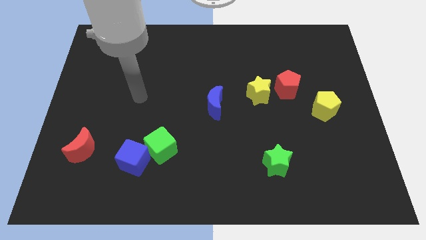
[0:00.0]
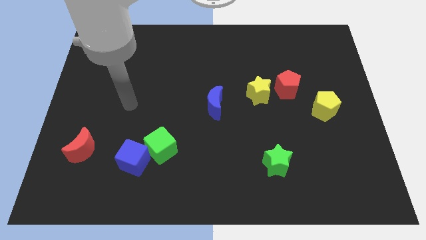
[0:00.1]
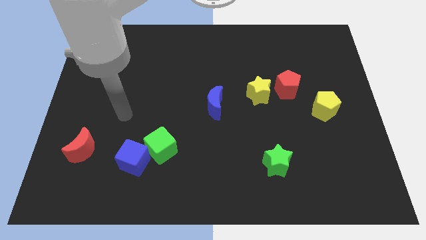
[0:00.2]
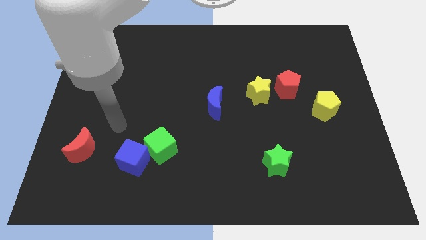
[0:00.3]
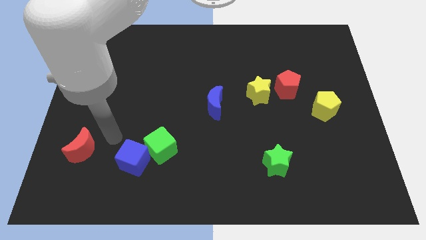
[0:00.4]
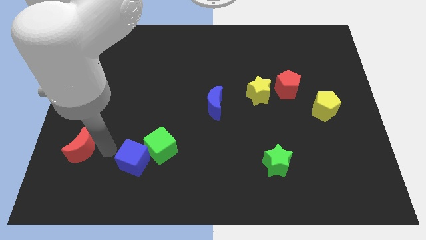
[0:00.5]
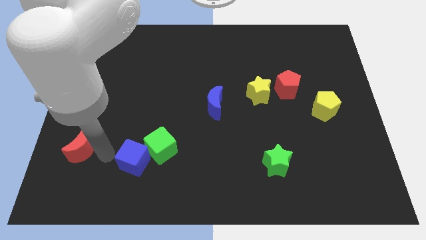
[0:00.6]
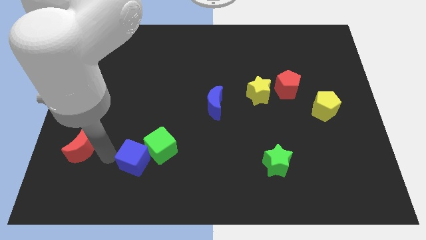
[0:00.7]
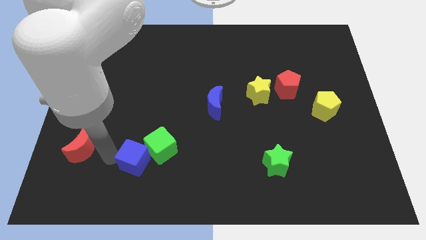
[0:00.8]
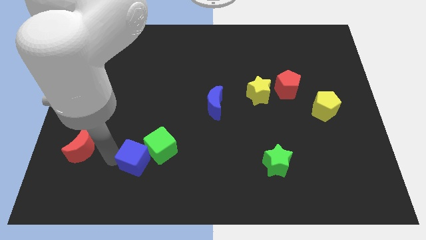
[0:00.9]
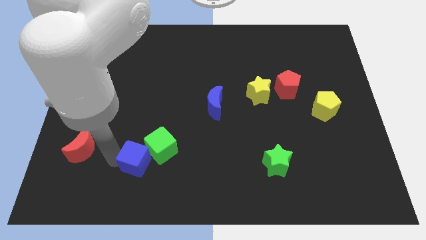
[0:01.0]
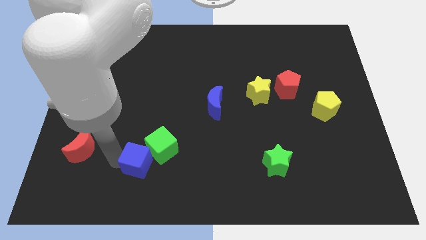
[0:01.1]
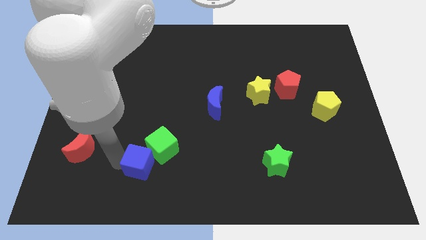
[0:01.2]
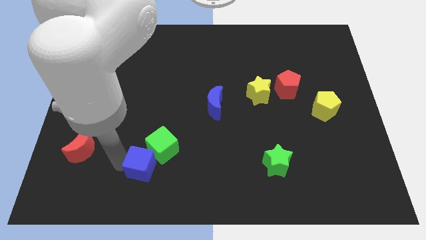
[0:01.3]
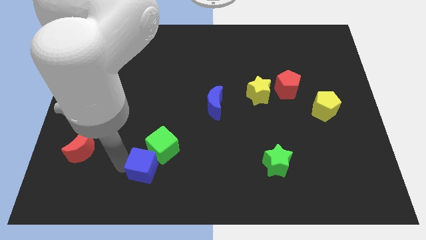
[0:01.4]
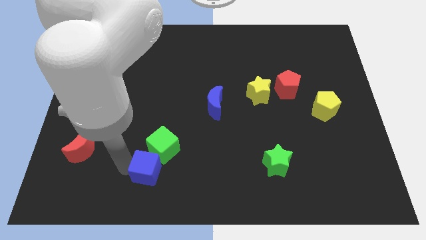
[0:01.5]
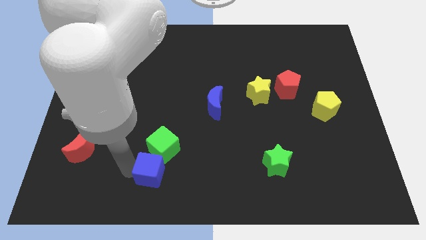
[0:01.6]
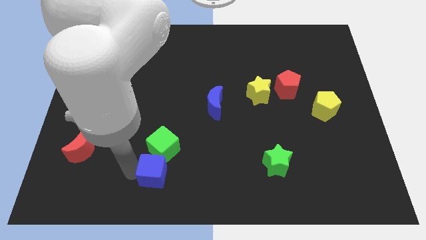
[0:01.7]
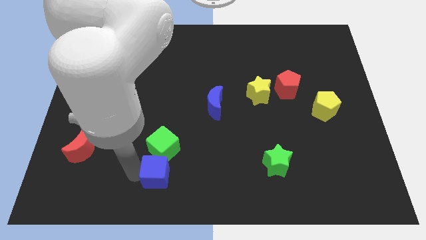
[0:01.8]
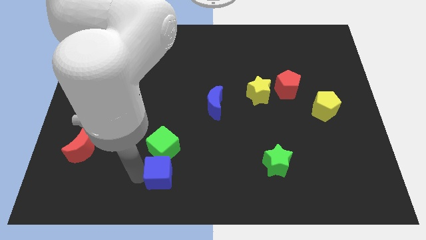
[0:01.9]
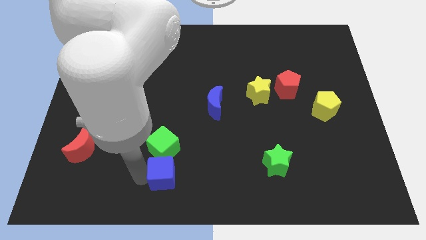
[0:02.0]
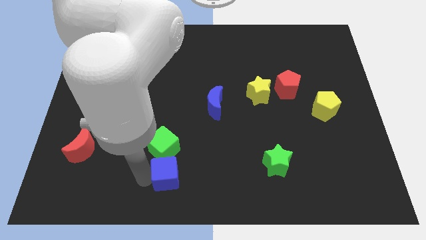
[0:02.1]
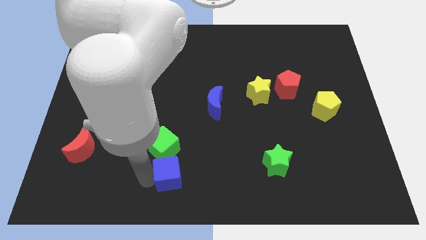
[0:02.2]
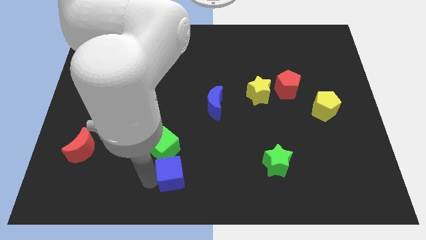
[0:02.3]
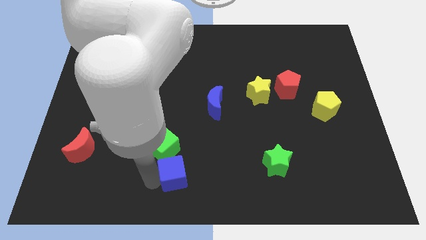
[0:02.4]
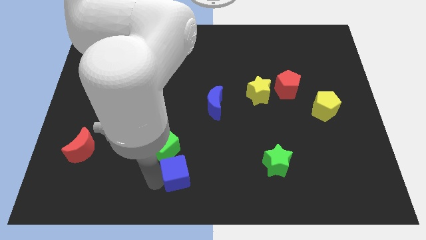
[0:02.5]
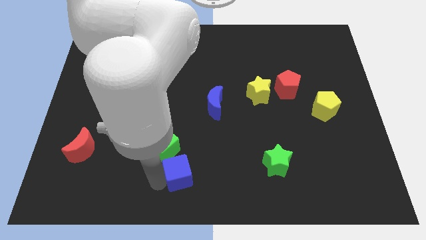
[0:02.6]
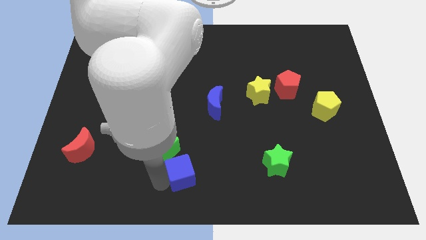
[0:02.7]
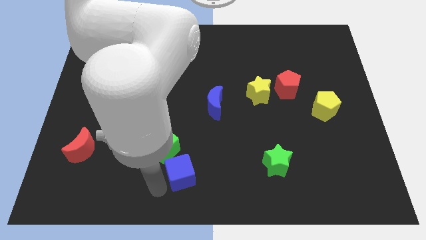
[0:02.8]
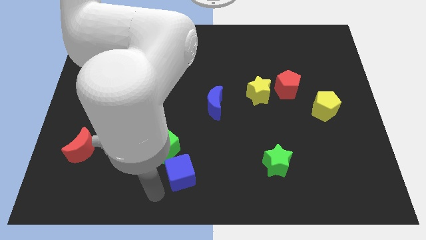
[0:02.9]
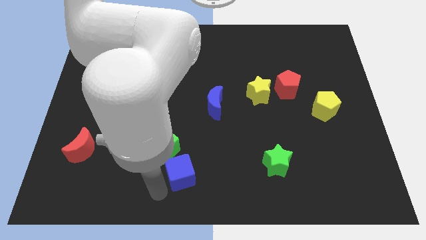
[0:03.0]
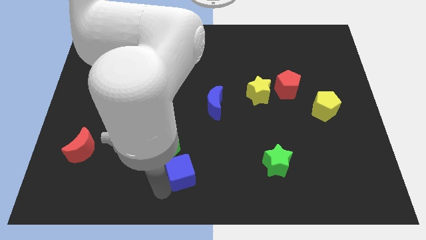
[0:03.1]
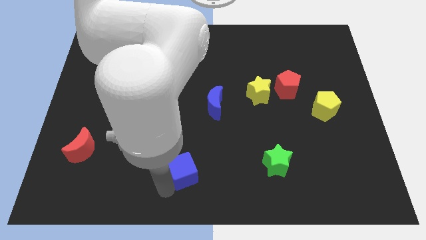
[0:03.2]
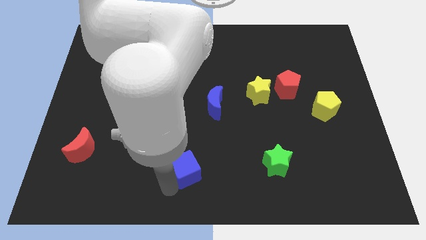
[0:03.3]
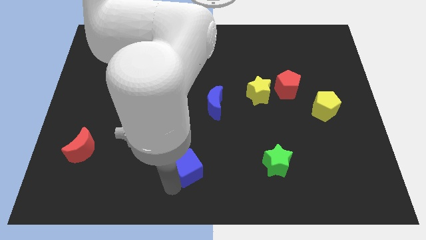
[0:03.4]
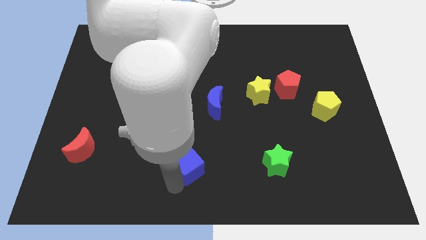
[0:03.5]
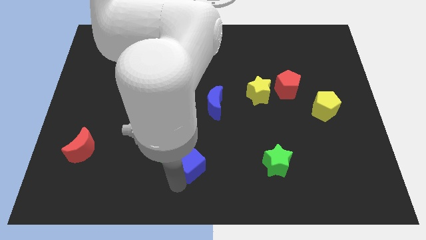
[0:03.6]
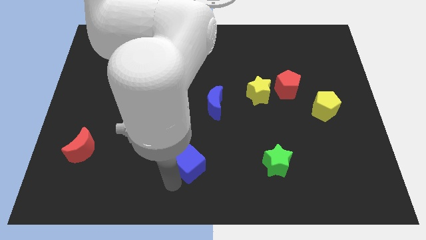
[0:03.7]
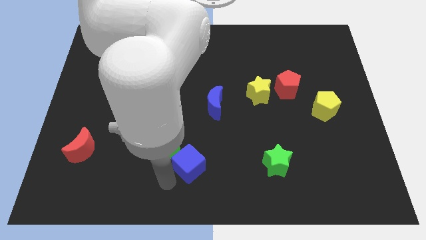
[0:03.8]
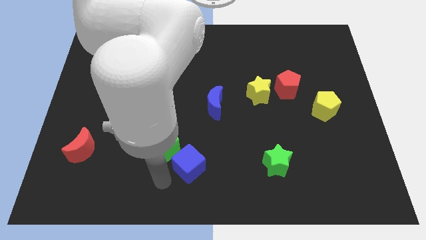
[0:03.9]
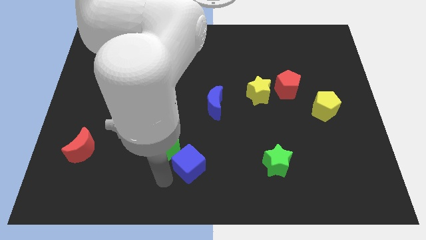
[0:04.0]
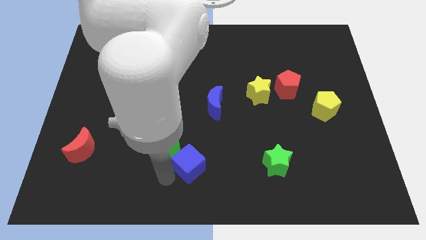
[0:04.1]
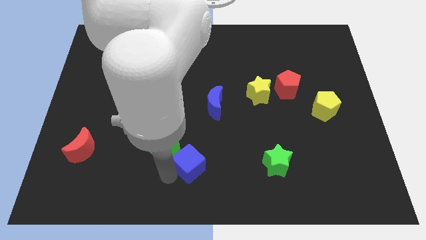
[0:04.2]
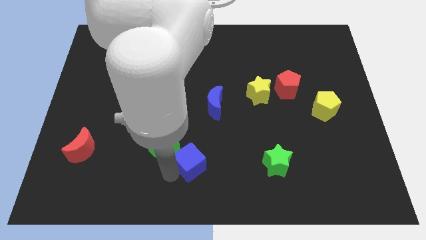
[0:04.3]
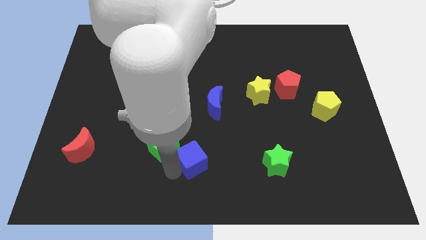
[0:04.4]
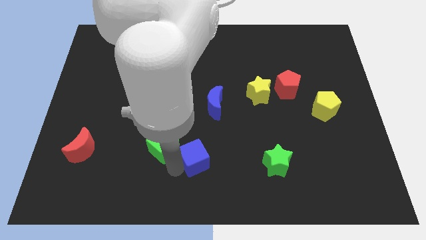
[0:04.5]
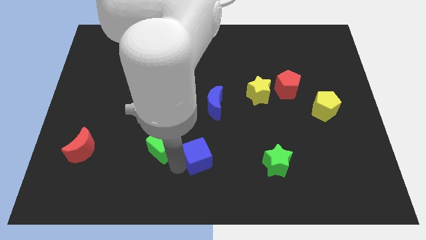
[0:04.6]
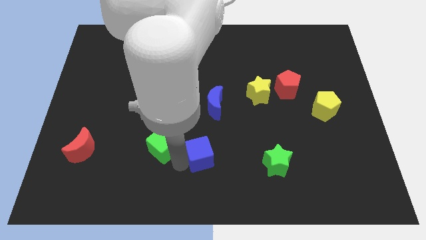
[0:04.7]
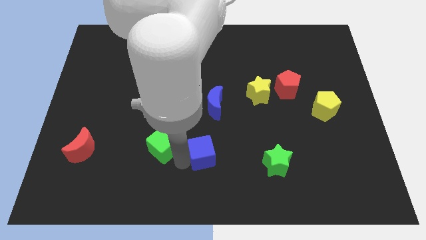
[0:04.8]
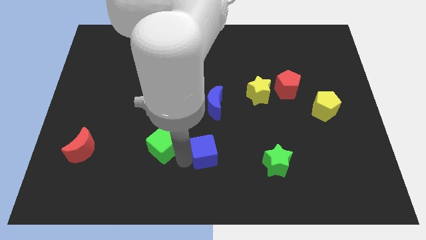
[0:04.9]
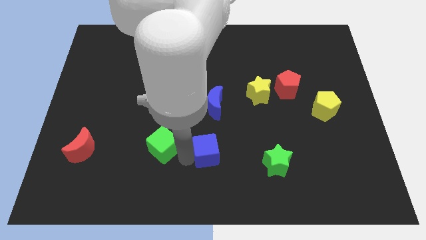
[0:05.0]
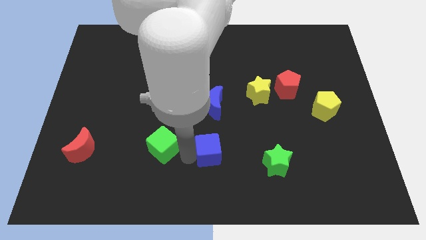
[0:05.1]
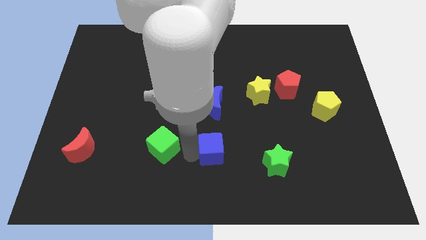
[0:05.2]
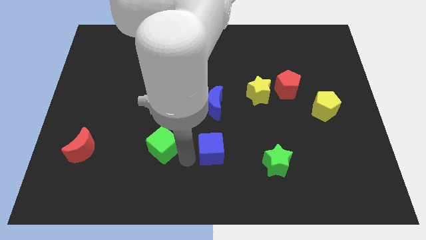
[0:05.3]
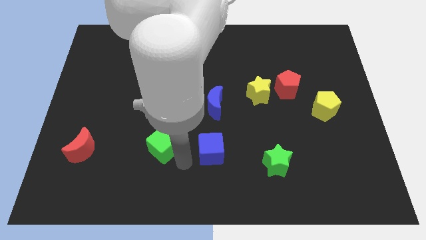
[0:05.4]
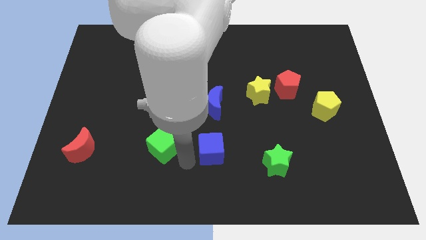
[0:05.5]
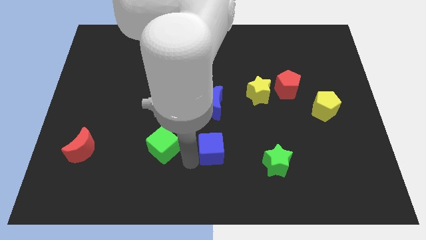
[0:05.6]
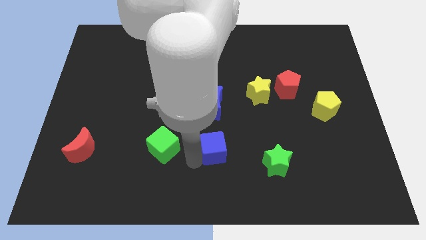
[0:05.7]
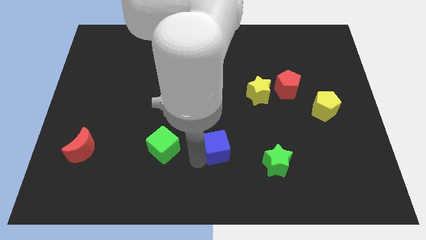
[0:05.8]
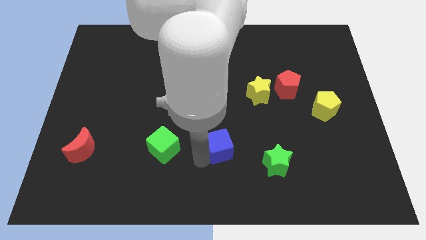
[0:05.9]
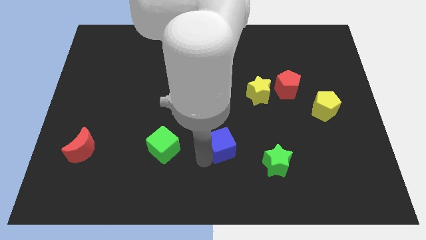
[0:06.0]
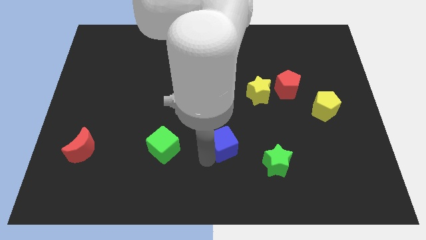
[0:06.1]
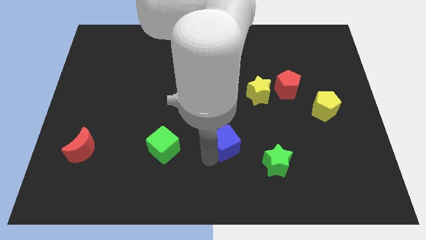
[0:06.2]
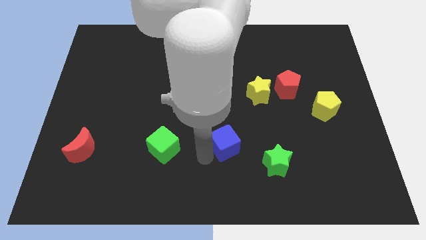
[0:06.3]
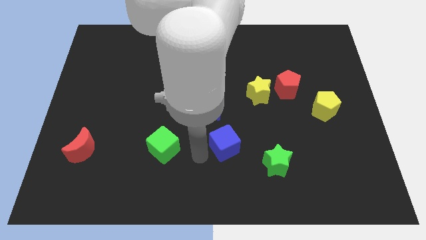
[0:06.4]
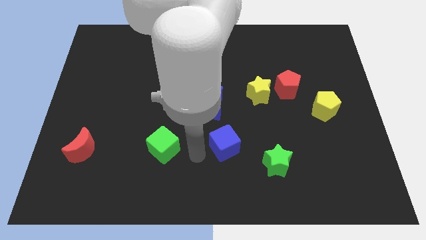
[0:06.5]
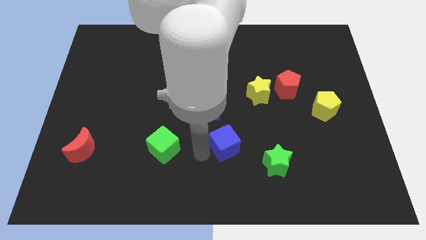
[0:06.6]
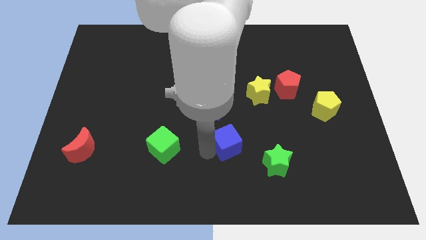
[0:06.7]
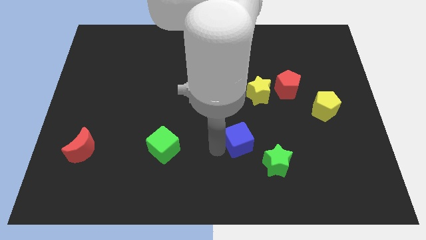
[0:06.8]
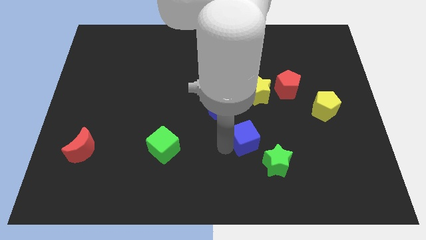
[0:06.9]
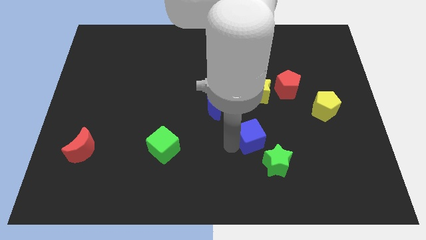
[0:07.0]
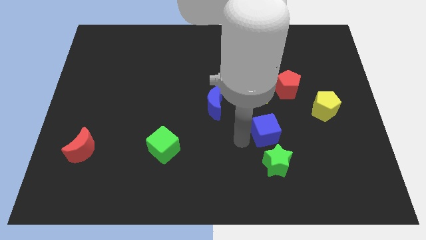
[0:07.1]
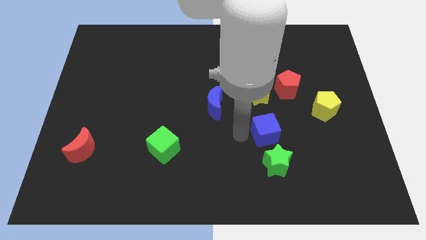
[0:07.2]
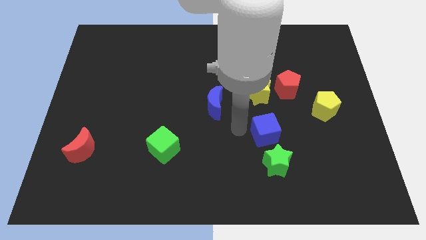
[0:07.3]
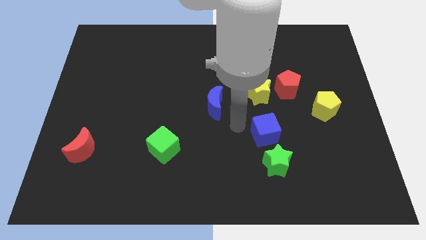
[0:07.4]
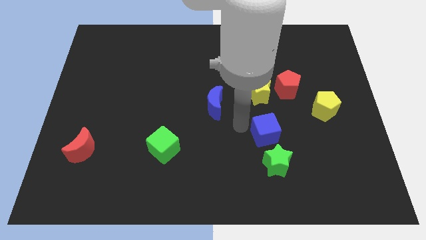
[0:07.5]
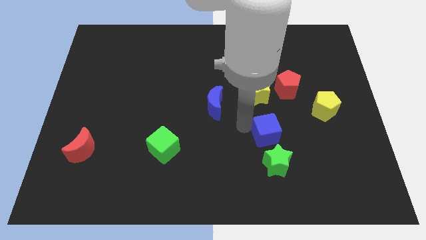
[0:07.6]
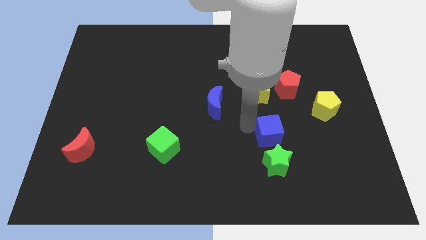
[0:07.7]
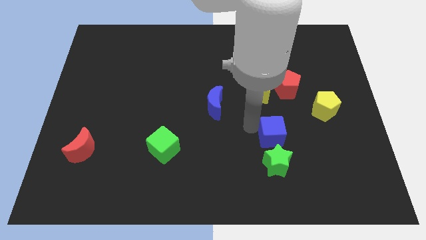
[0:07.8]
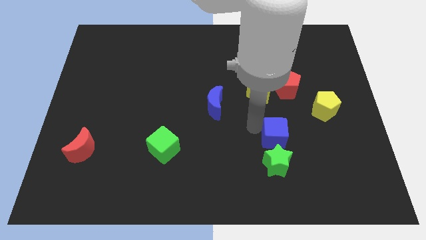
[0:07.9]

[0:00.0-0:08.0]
move the blue cube to the top right of the green star
